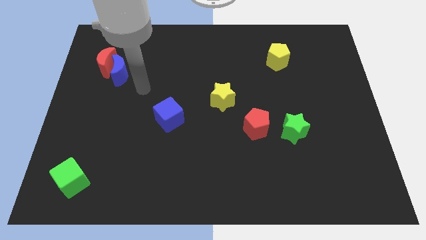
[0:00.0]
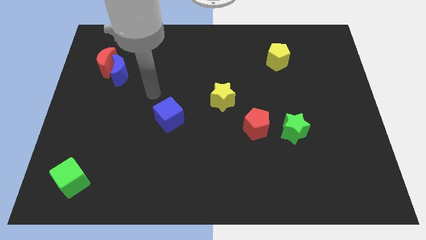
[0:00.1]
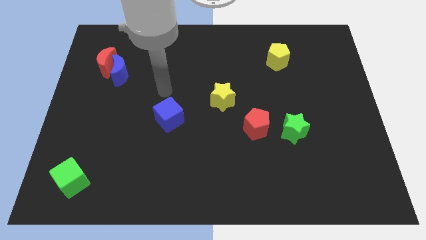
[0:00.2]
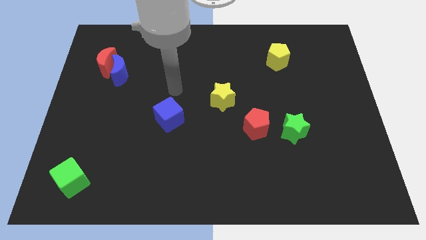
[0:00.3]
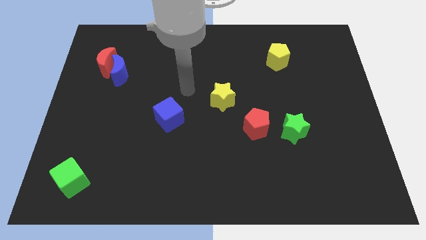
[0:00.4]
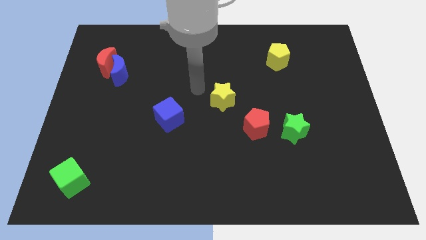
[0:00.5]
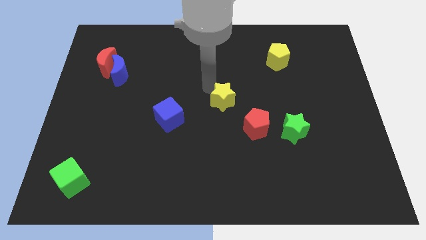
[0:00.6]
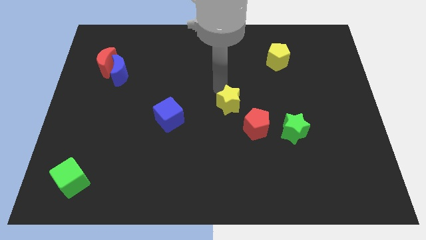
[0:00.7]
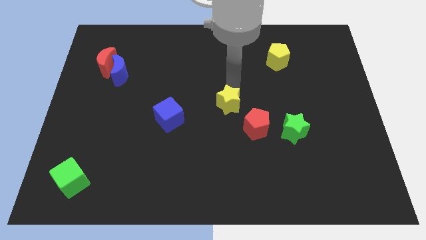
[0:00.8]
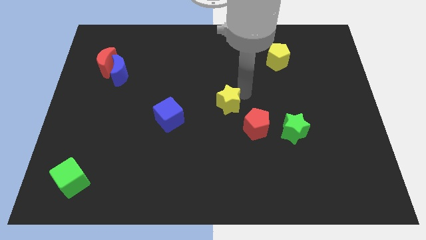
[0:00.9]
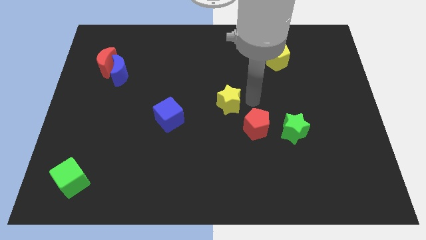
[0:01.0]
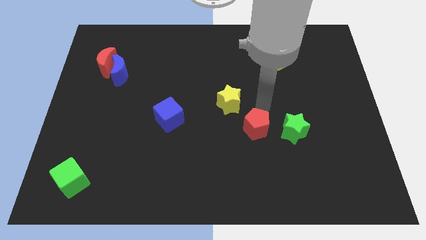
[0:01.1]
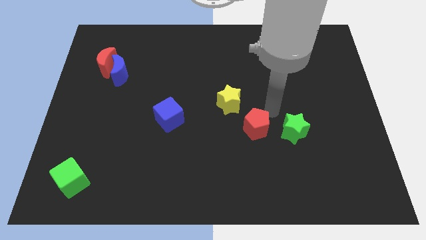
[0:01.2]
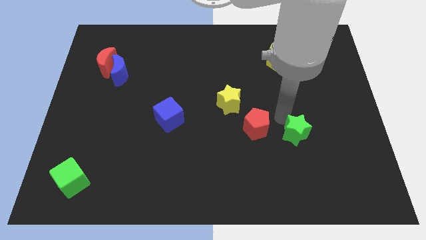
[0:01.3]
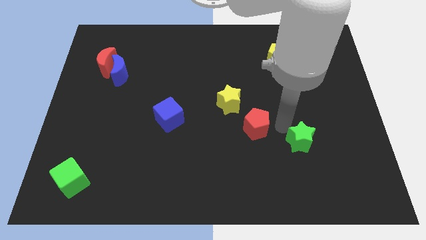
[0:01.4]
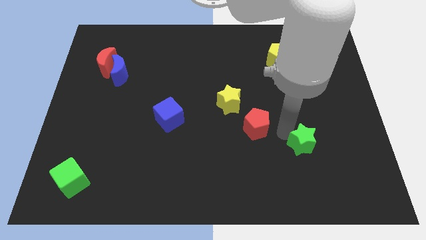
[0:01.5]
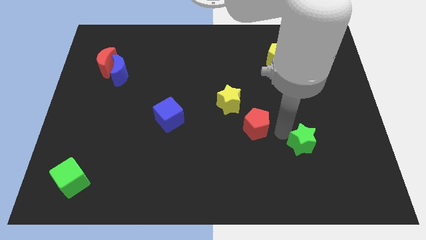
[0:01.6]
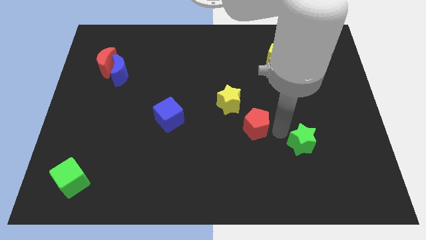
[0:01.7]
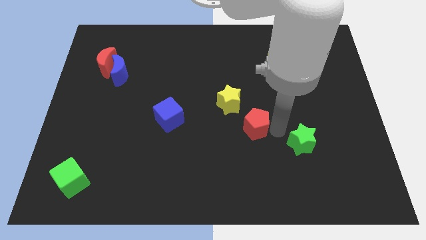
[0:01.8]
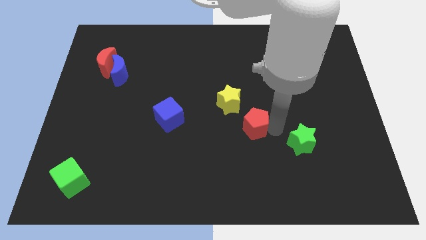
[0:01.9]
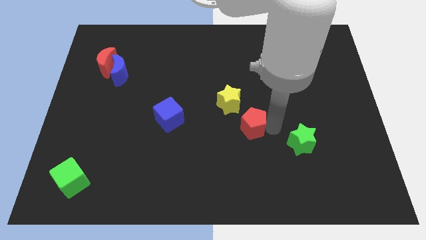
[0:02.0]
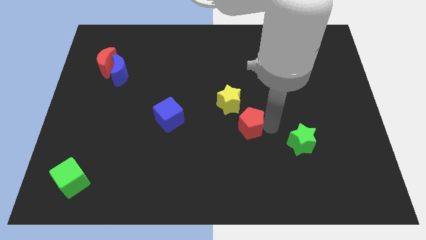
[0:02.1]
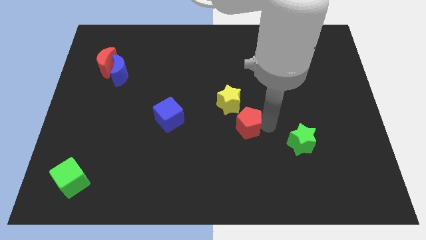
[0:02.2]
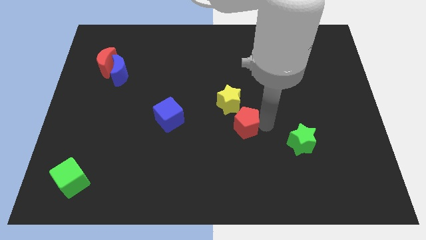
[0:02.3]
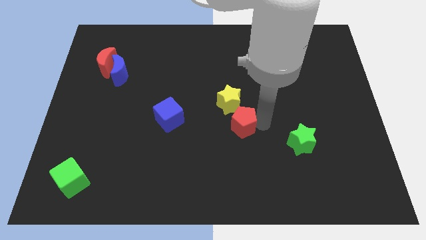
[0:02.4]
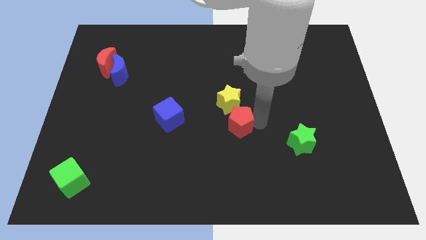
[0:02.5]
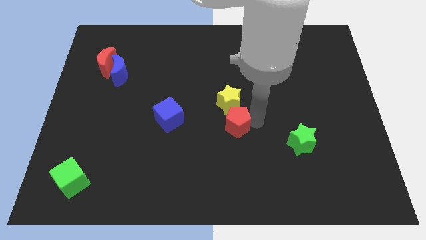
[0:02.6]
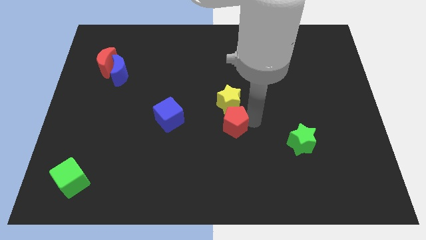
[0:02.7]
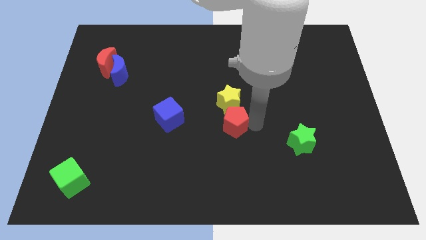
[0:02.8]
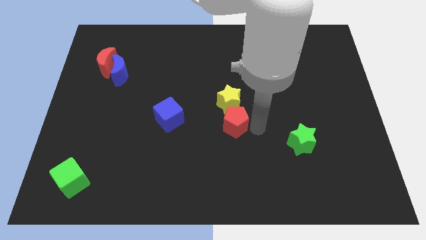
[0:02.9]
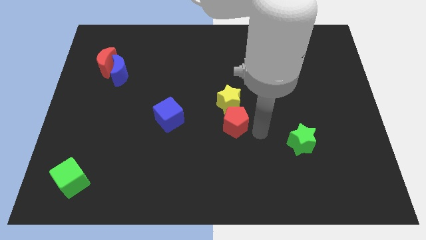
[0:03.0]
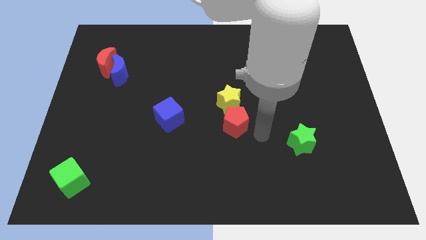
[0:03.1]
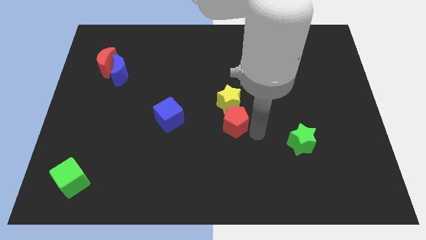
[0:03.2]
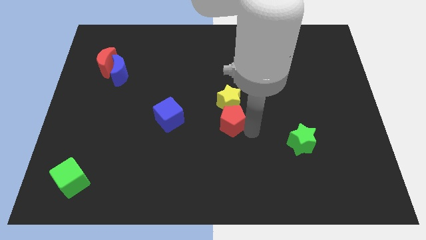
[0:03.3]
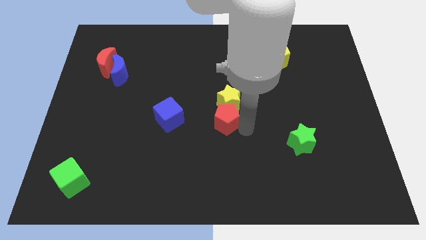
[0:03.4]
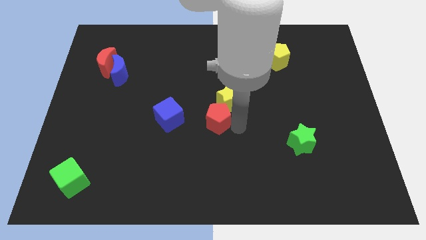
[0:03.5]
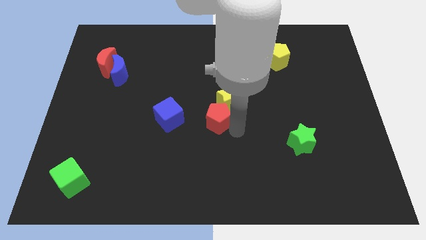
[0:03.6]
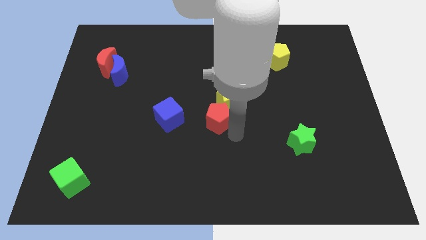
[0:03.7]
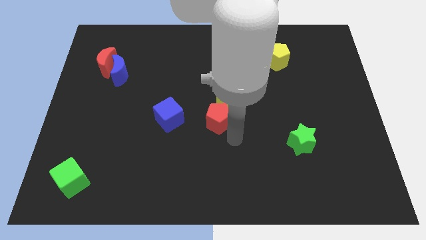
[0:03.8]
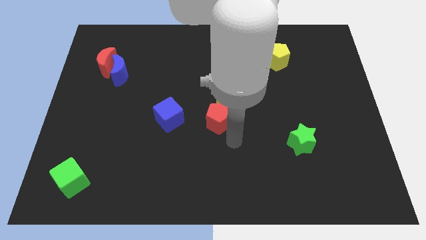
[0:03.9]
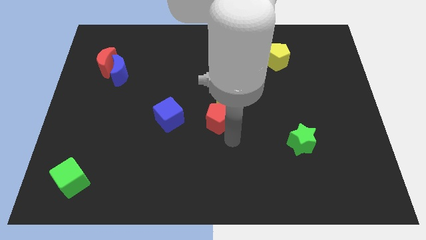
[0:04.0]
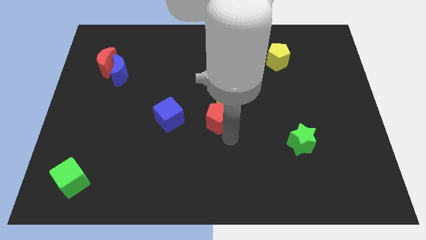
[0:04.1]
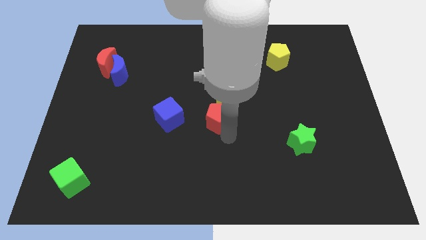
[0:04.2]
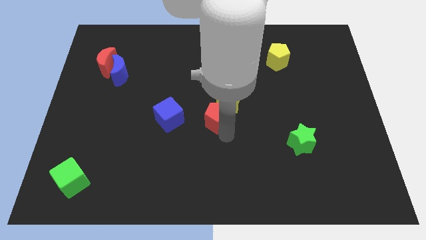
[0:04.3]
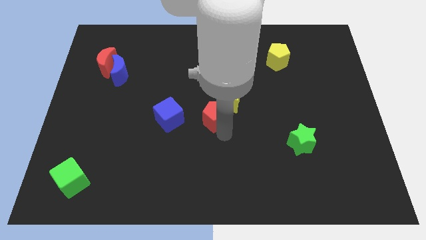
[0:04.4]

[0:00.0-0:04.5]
slightly push the red pentagon upwards and then left

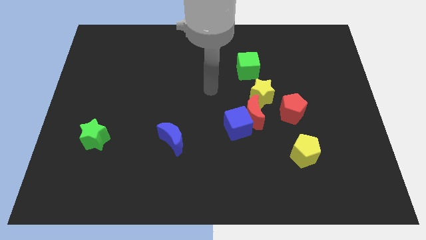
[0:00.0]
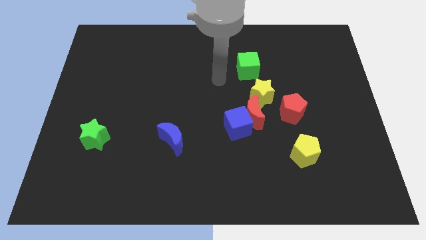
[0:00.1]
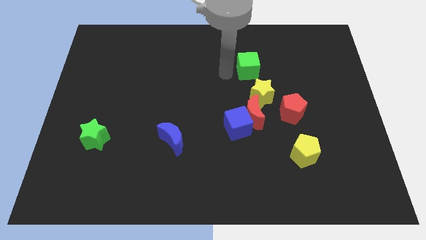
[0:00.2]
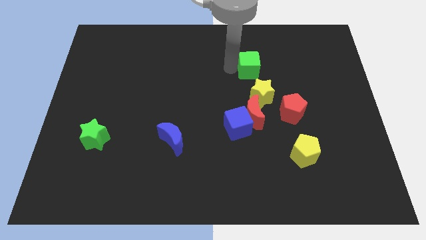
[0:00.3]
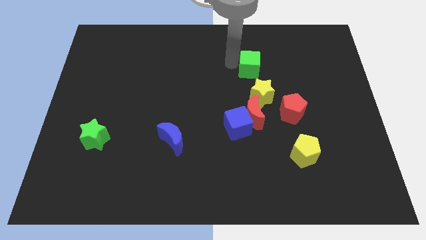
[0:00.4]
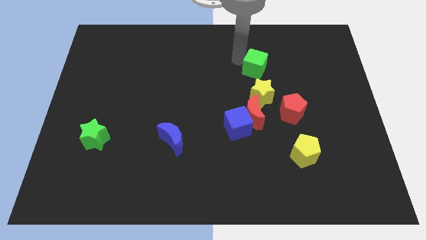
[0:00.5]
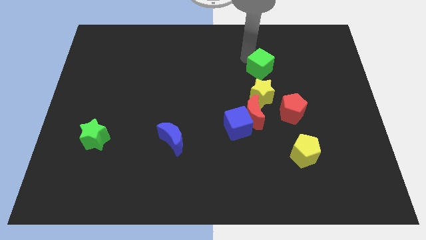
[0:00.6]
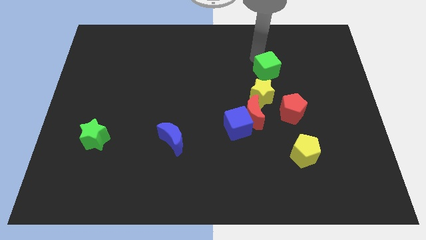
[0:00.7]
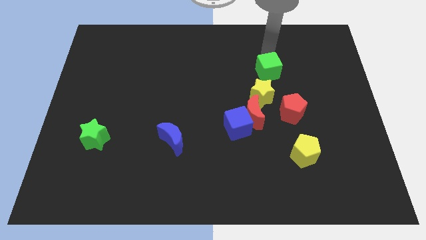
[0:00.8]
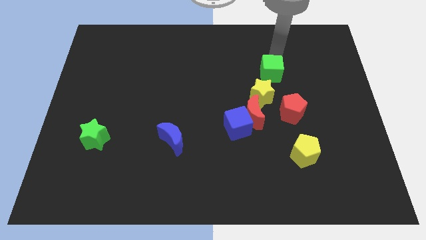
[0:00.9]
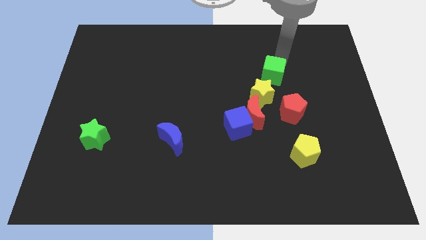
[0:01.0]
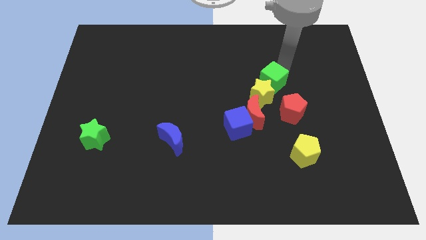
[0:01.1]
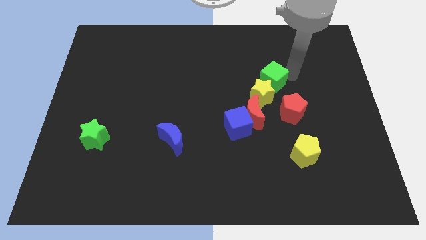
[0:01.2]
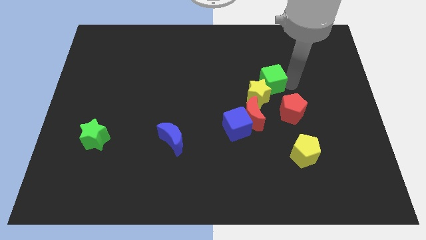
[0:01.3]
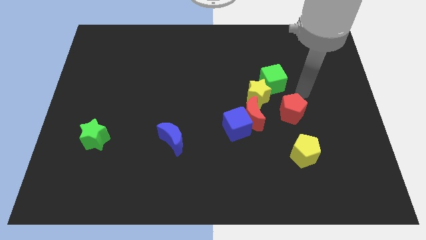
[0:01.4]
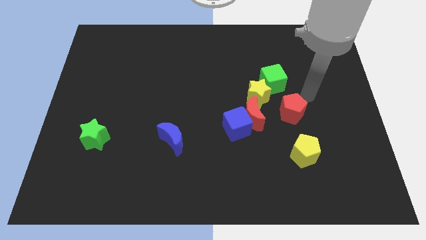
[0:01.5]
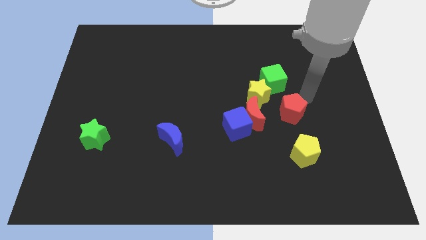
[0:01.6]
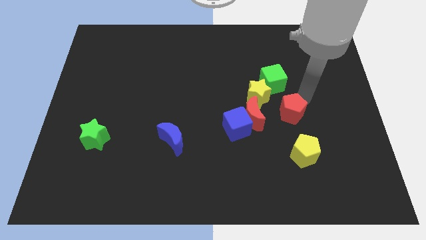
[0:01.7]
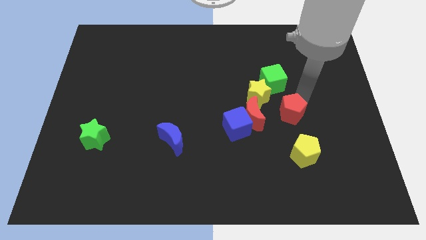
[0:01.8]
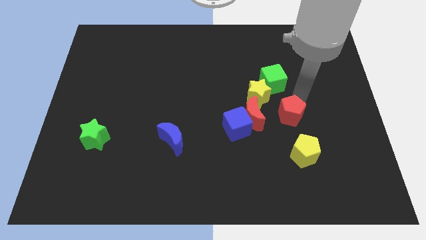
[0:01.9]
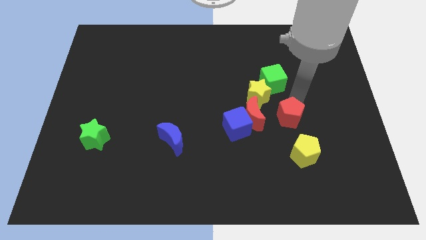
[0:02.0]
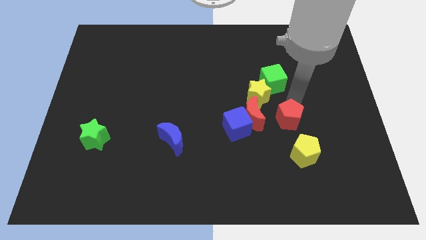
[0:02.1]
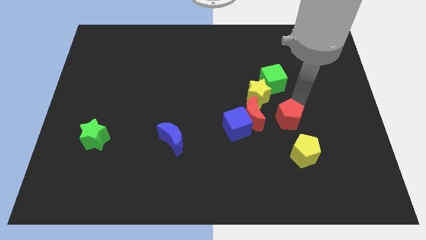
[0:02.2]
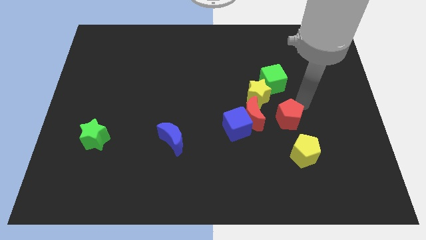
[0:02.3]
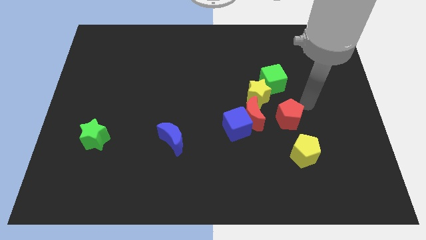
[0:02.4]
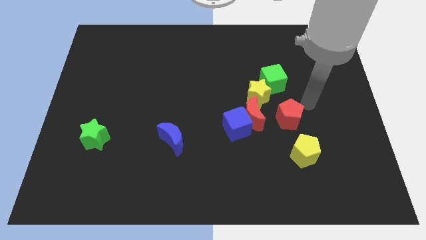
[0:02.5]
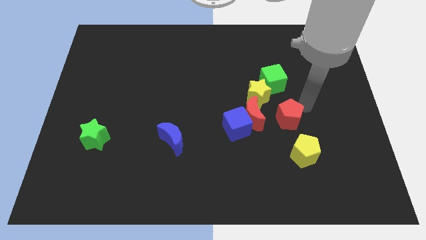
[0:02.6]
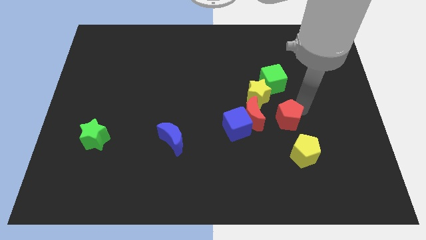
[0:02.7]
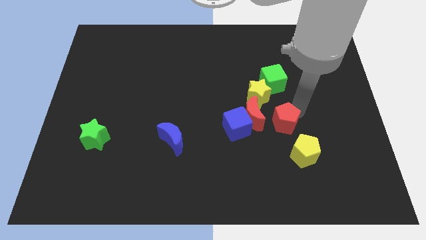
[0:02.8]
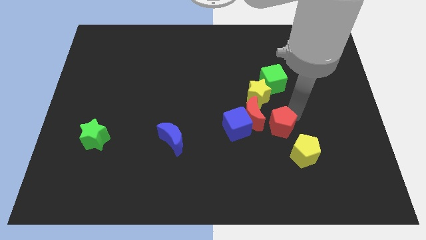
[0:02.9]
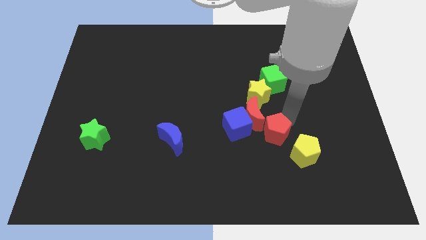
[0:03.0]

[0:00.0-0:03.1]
slide the red pentagon downwards and to the left a little

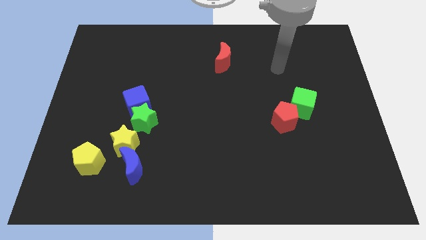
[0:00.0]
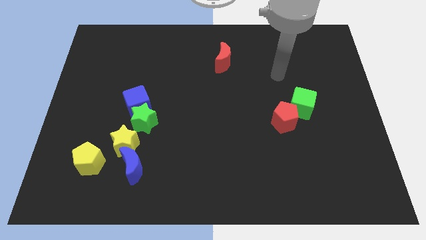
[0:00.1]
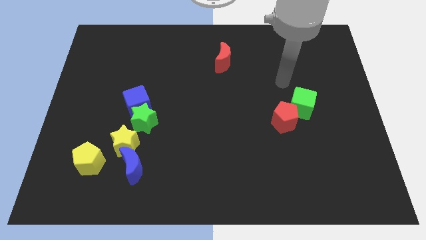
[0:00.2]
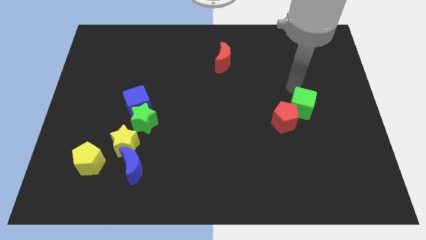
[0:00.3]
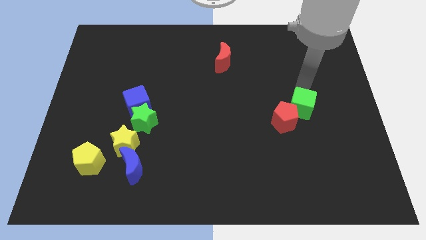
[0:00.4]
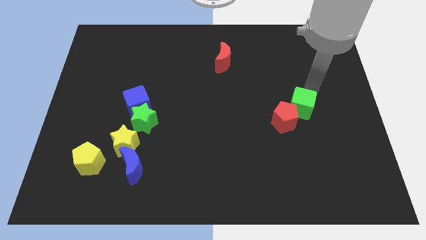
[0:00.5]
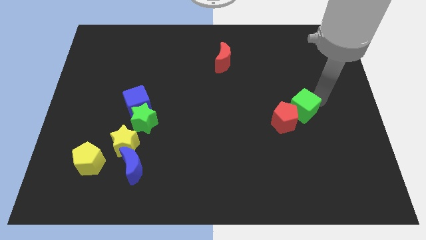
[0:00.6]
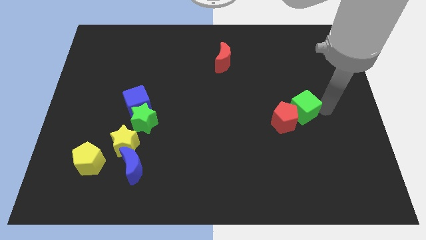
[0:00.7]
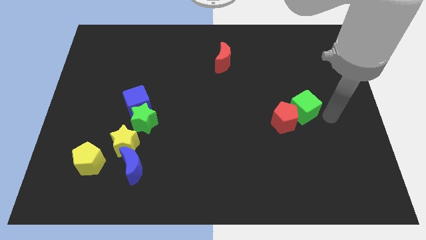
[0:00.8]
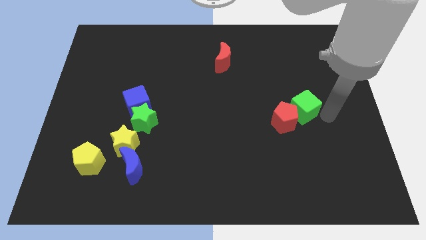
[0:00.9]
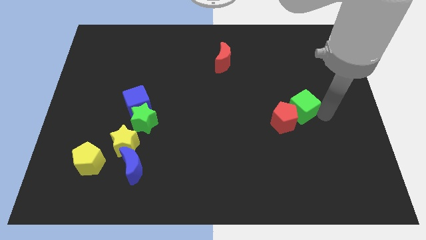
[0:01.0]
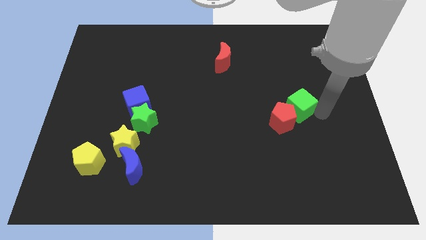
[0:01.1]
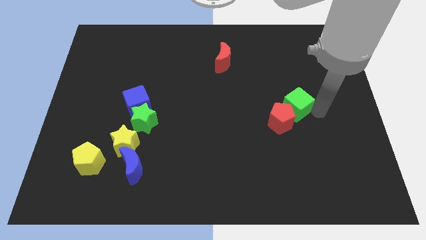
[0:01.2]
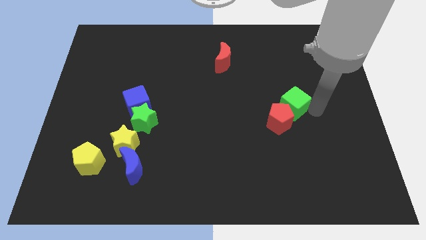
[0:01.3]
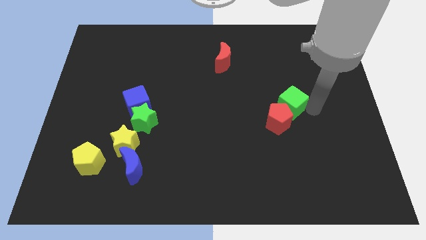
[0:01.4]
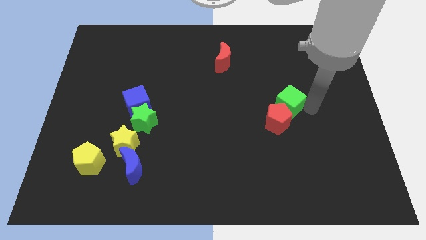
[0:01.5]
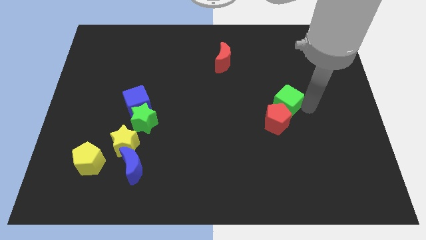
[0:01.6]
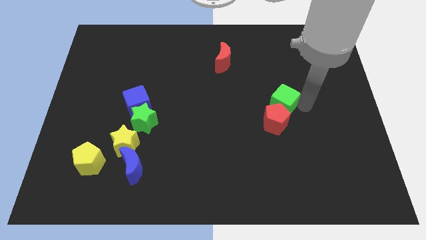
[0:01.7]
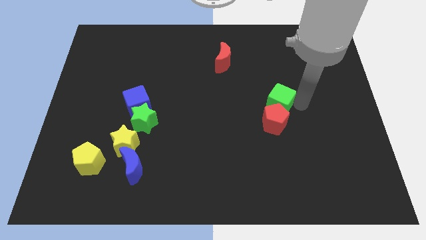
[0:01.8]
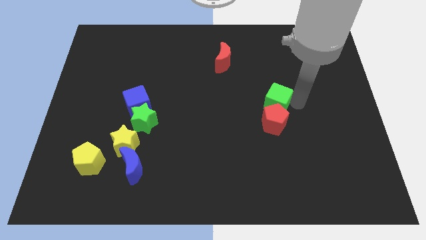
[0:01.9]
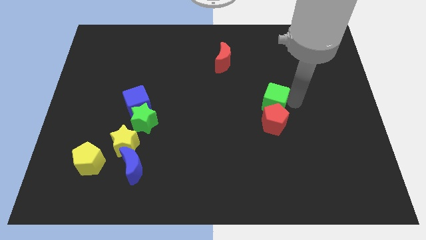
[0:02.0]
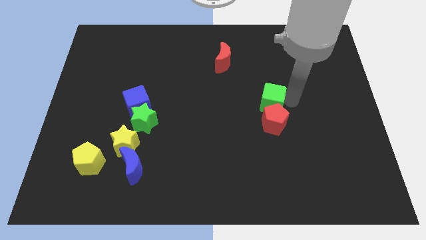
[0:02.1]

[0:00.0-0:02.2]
move the green cube to the left slightly
